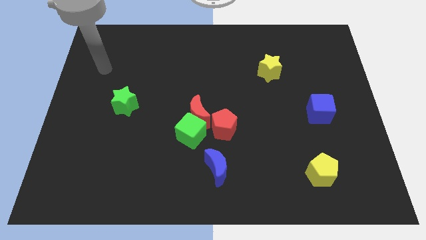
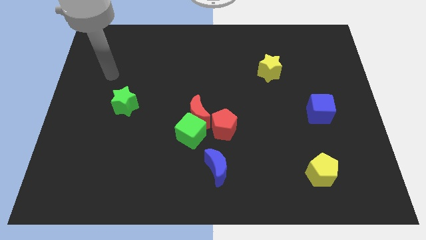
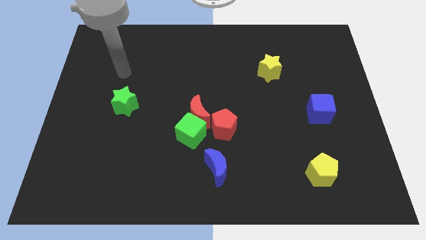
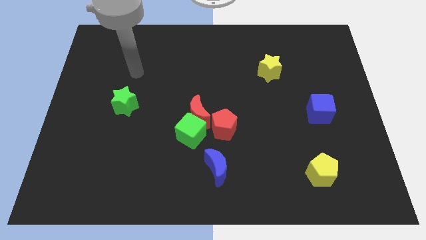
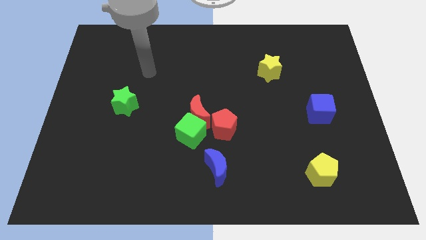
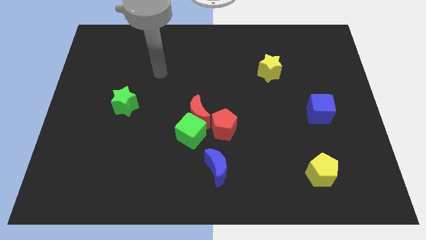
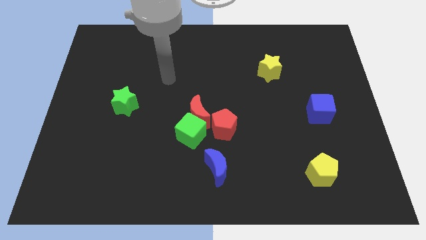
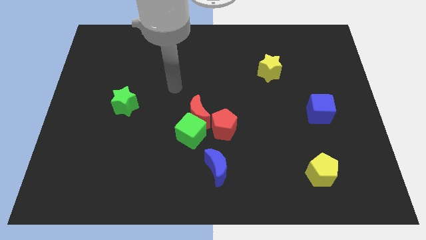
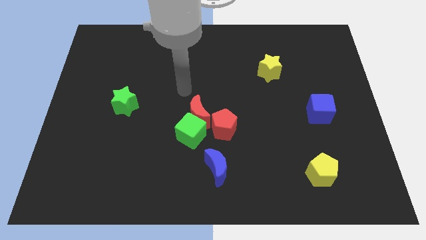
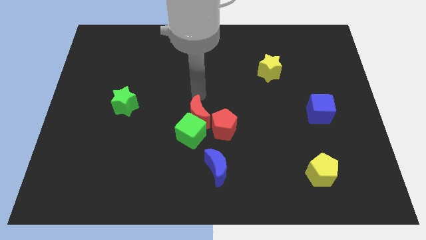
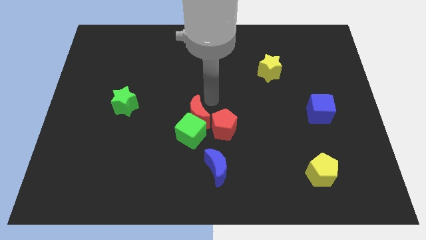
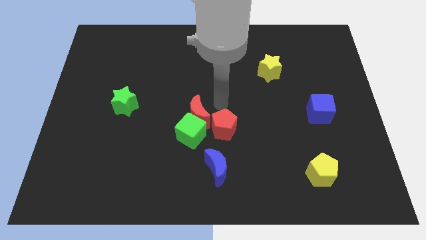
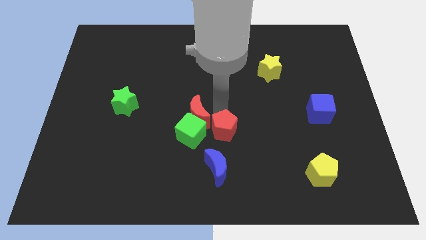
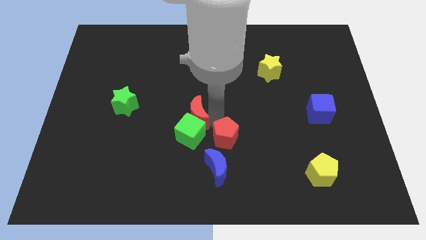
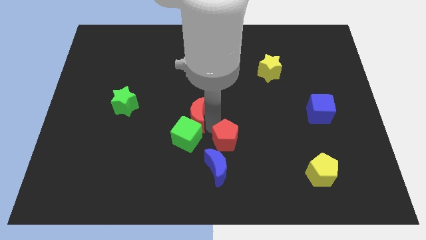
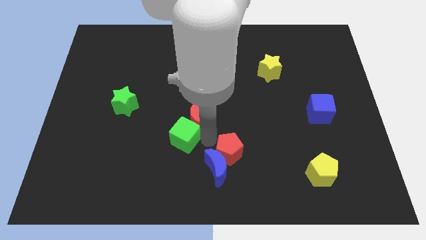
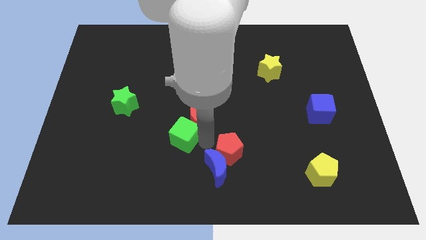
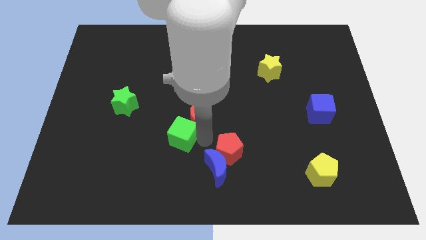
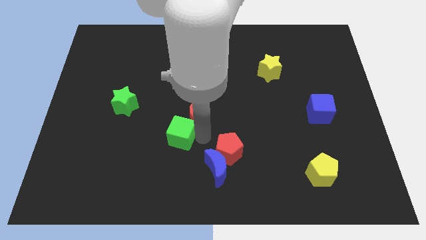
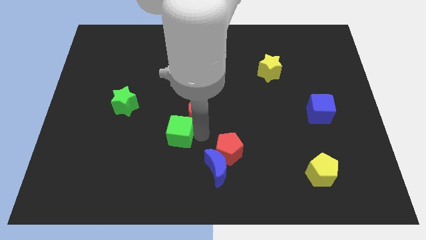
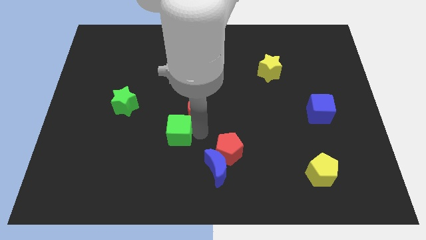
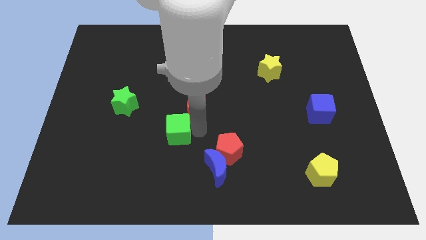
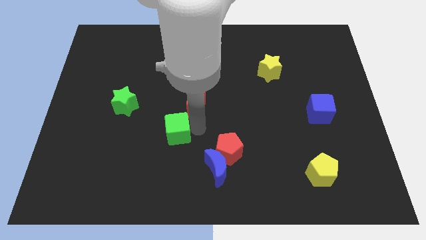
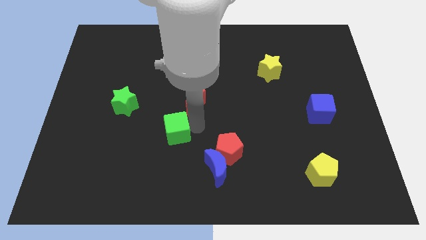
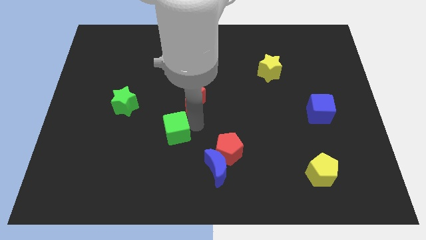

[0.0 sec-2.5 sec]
pull the red moon apart from the green cube and red pentagon

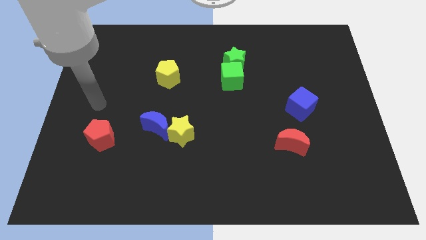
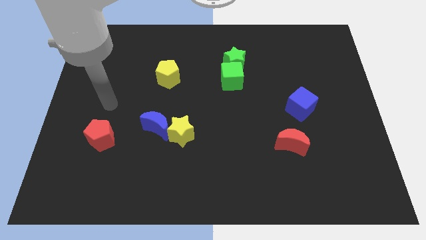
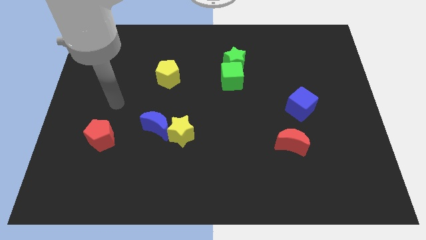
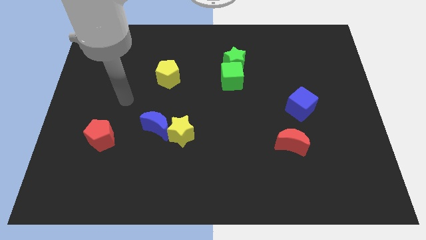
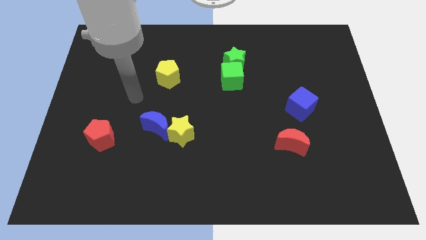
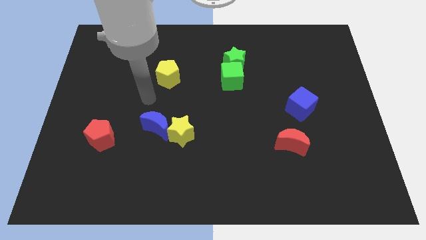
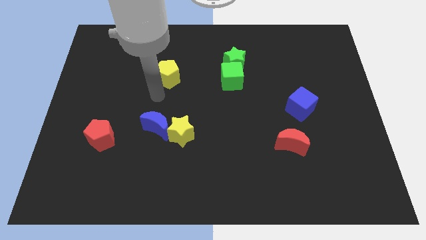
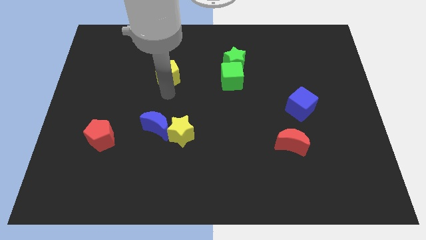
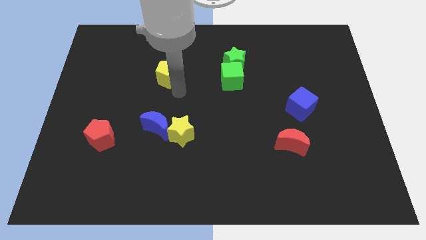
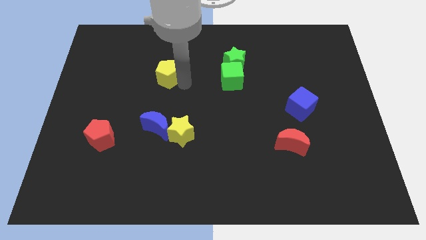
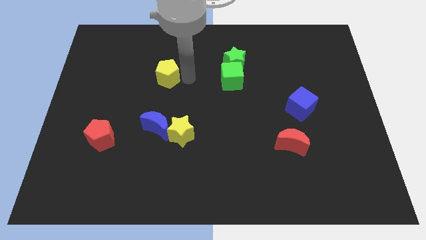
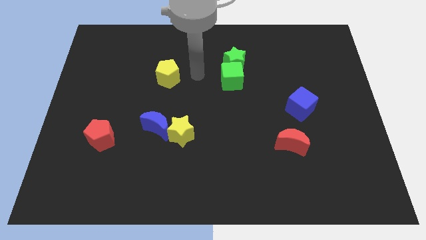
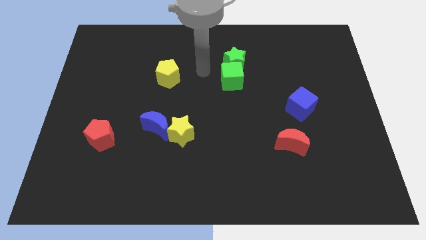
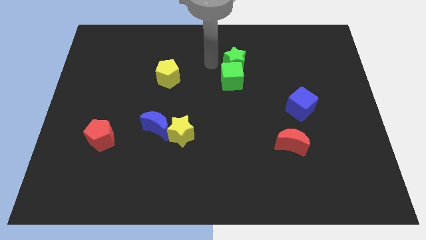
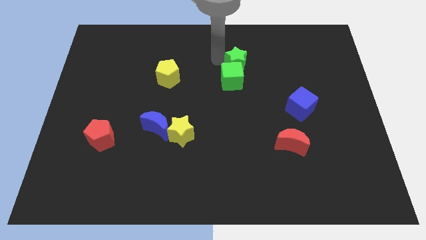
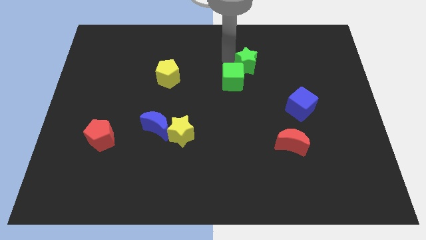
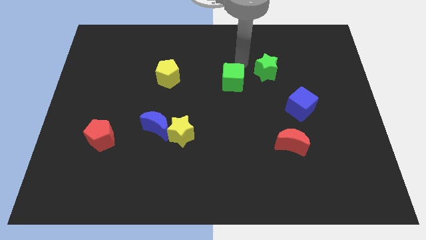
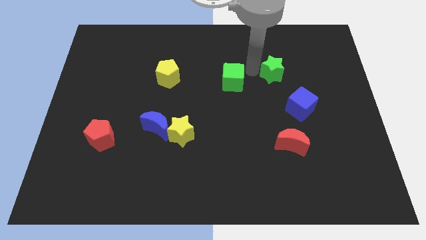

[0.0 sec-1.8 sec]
move the green cube away from the green star

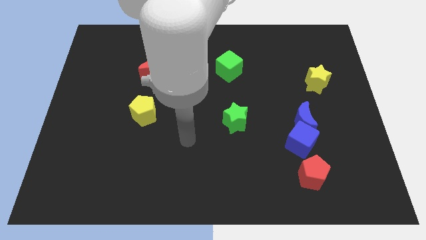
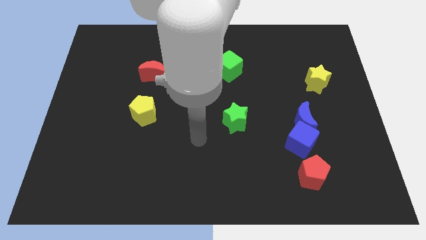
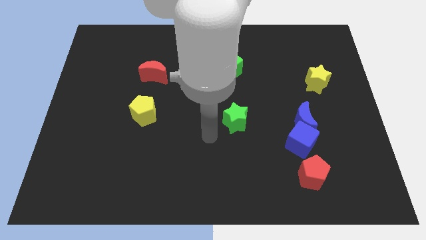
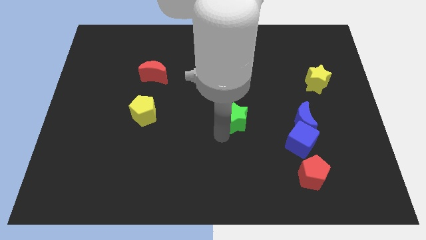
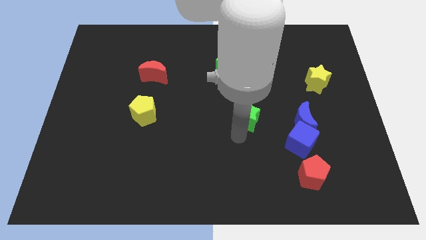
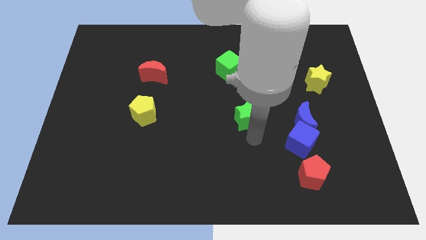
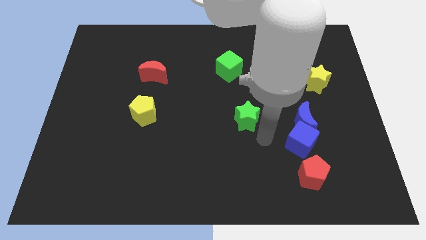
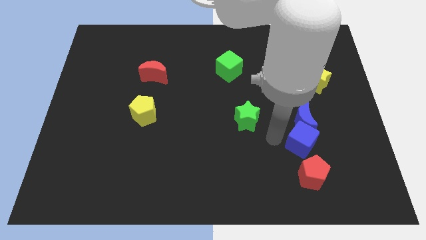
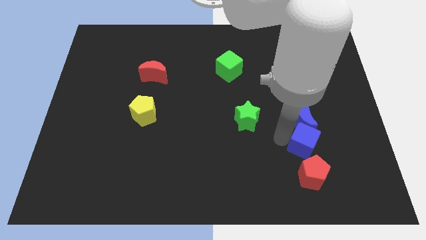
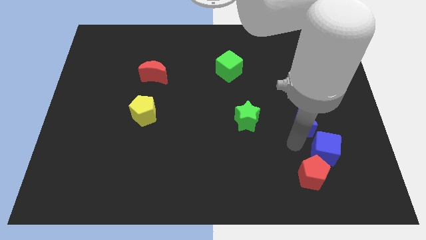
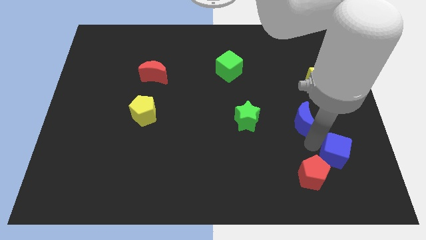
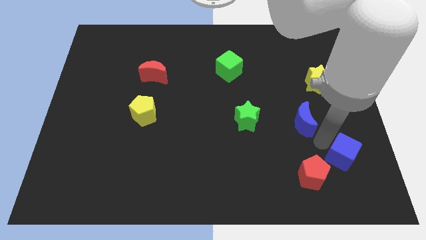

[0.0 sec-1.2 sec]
pull the blue moon apart from the blue cube

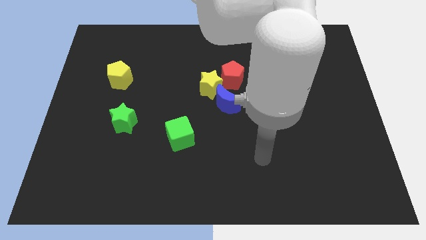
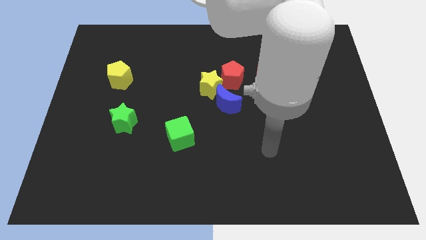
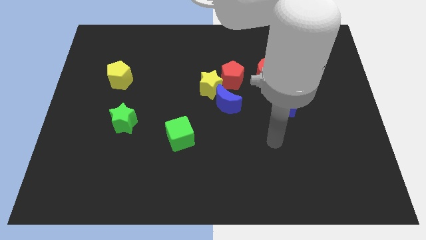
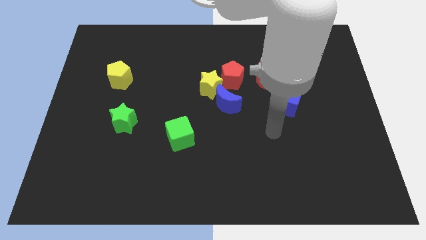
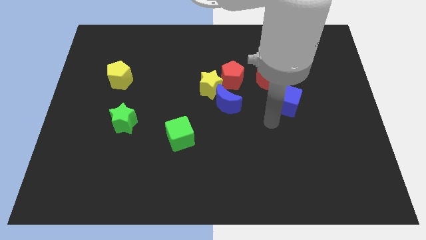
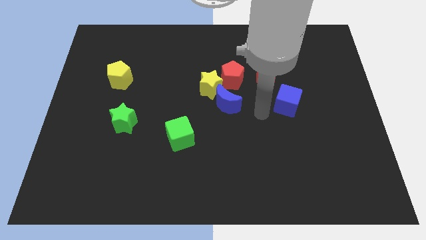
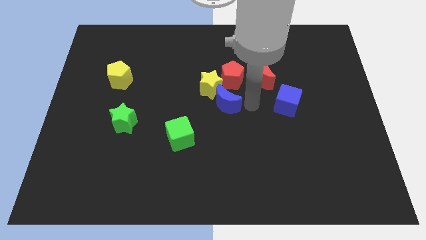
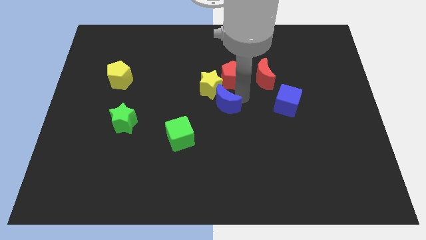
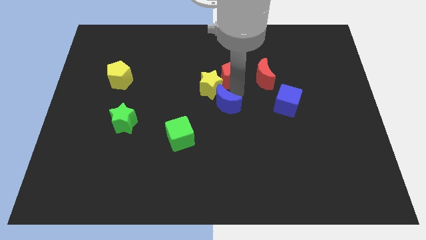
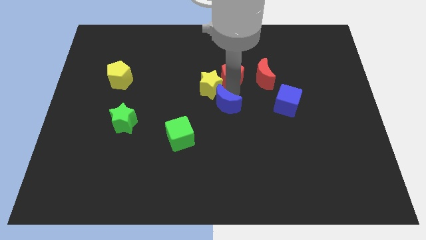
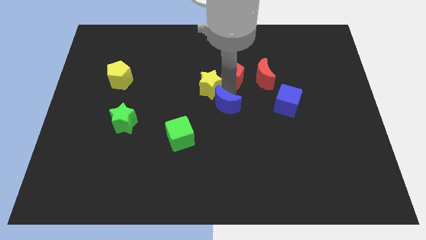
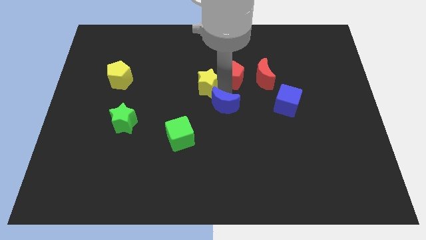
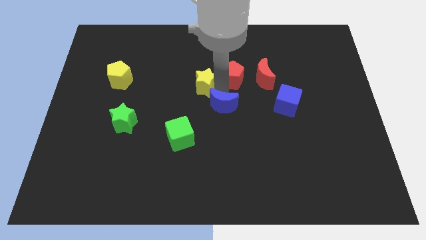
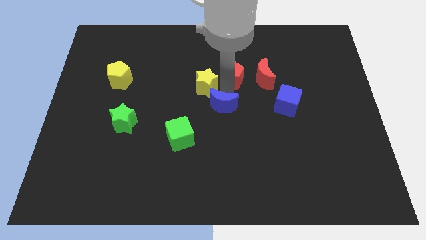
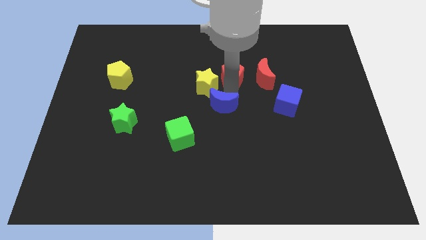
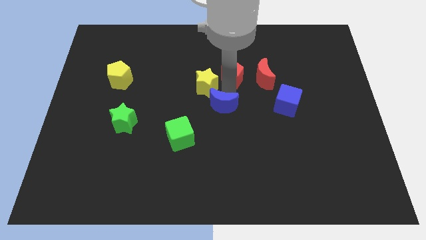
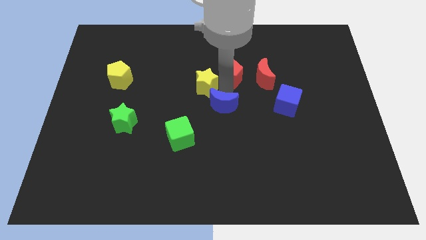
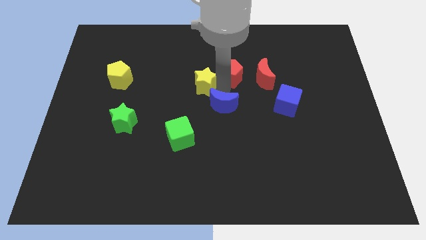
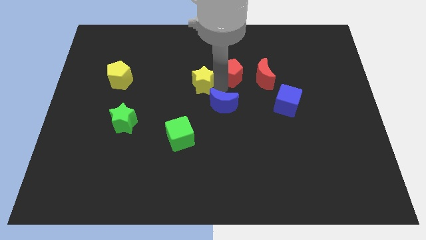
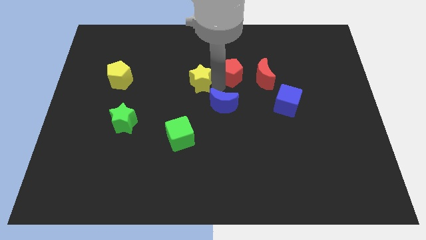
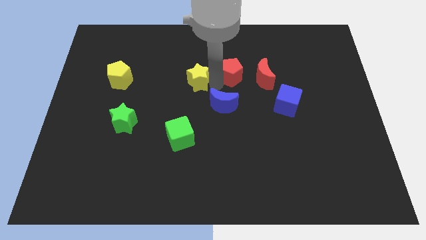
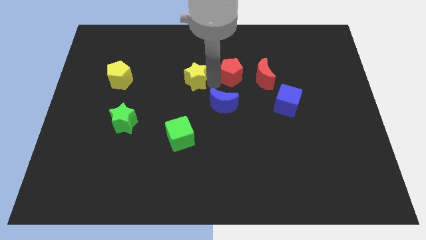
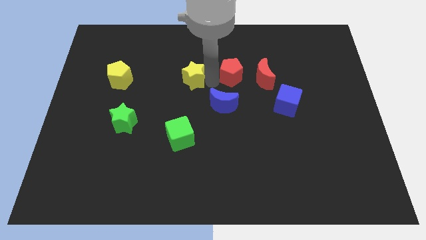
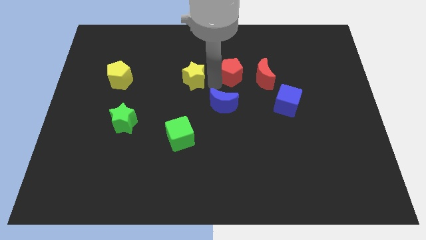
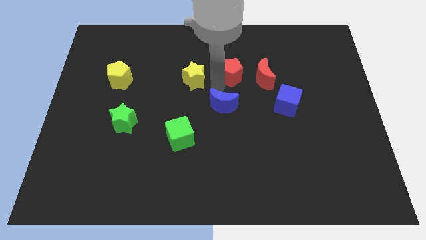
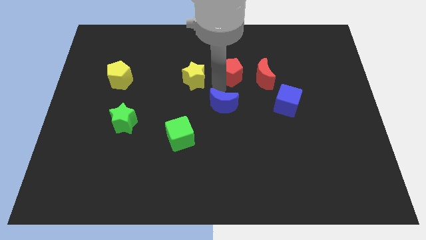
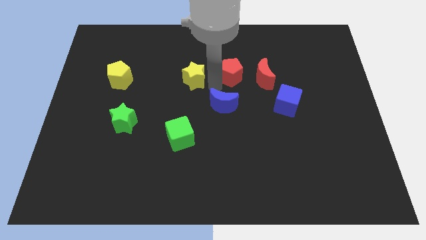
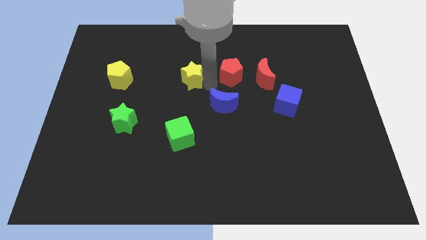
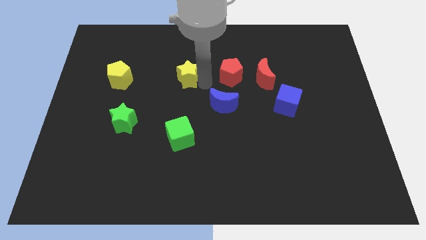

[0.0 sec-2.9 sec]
move the yellow star away from the blue moon and red pentagon

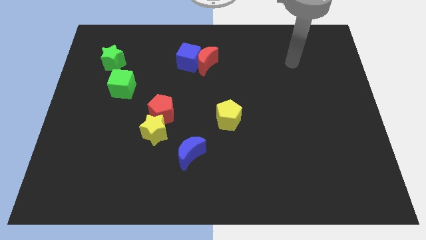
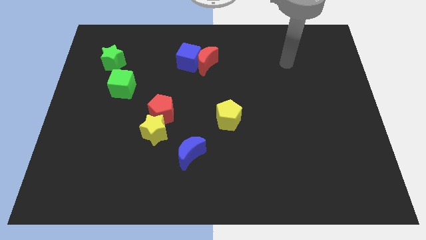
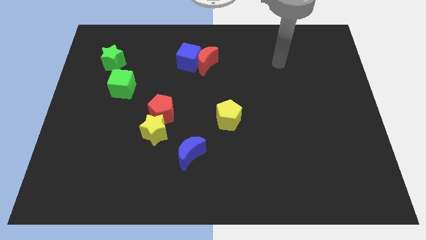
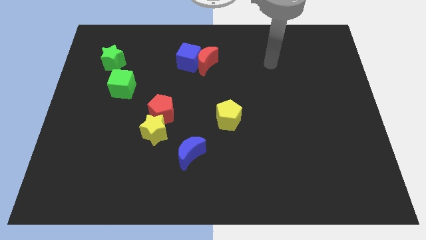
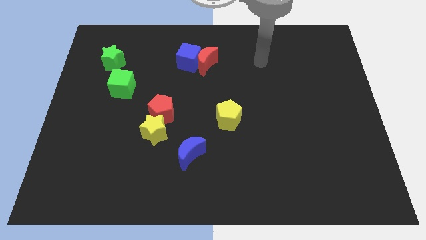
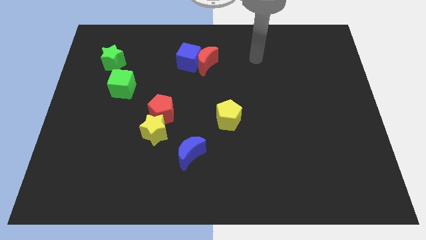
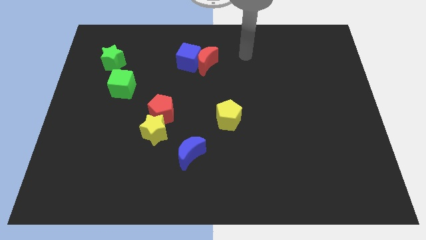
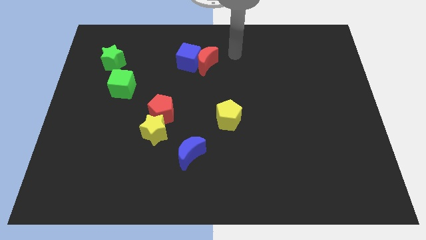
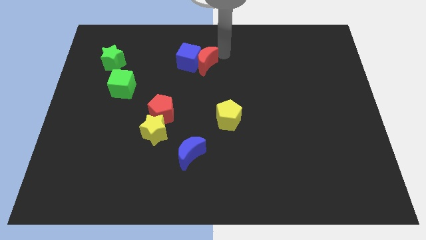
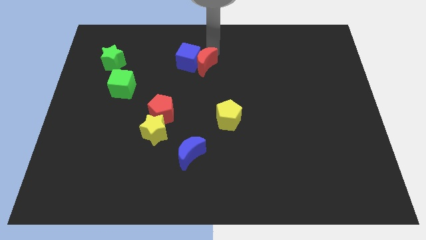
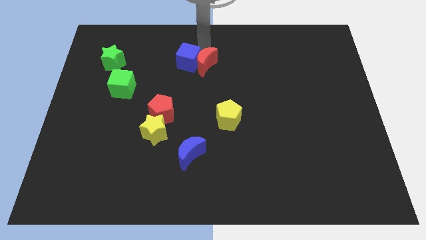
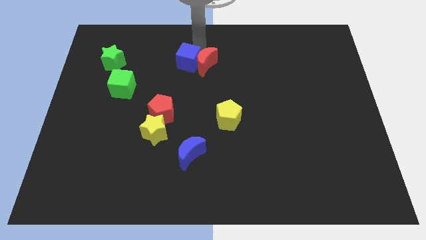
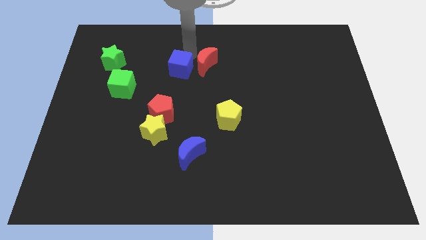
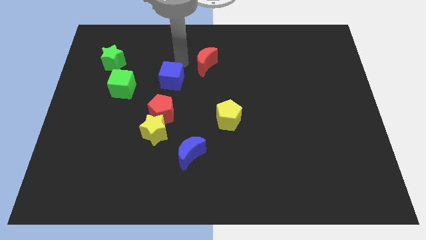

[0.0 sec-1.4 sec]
move the red moon away from the blue cube
